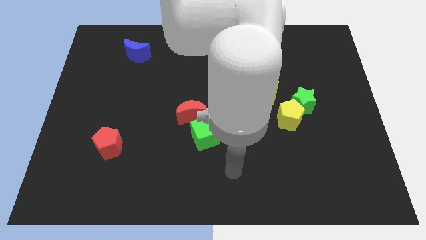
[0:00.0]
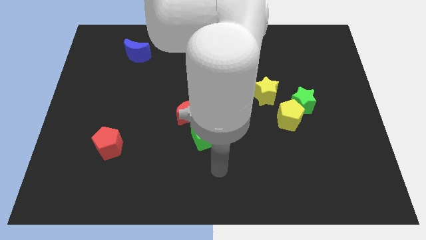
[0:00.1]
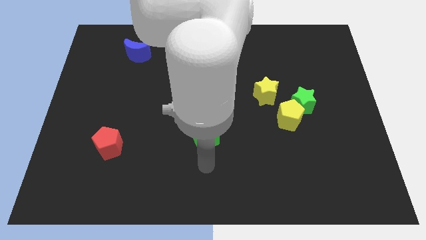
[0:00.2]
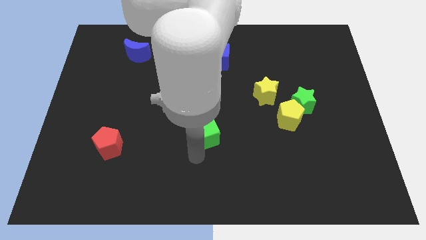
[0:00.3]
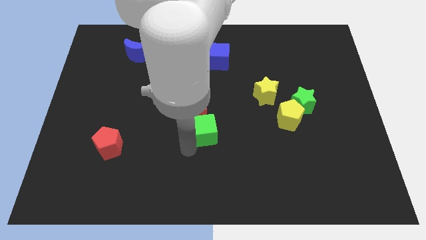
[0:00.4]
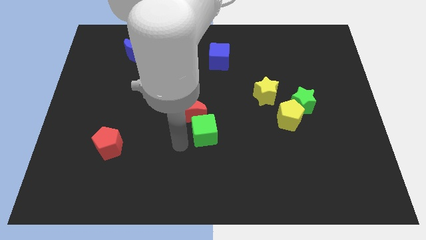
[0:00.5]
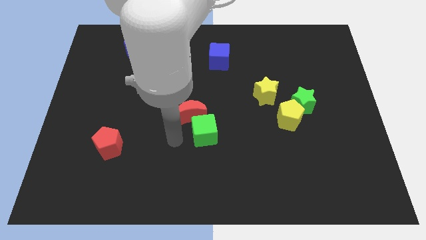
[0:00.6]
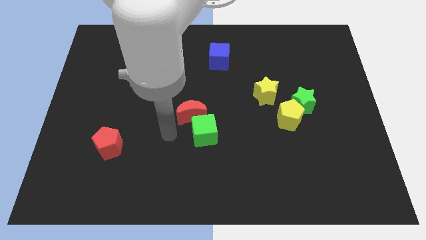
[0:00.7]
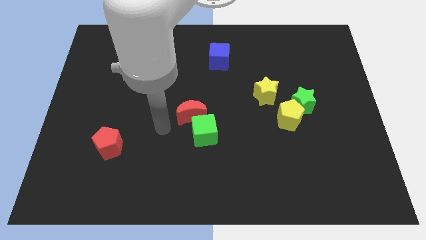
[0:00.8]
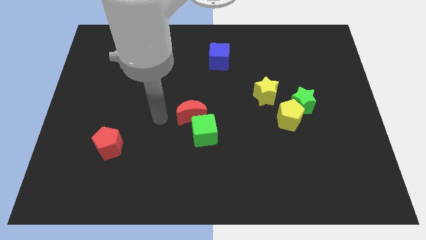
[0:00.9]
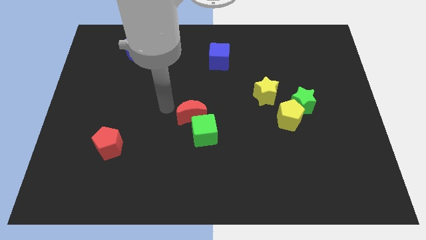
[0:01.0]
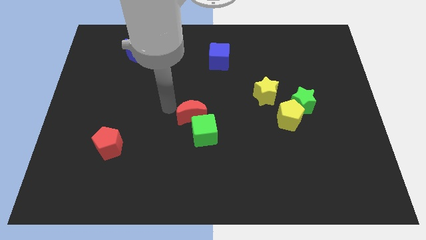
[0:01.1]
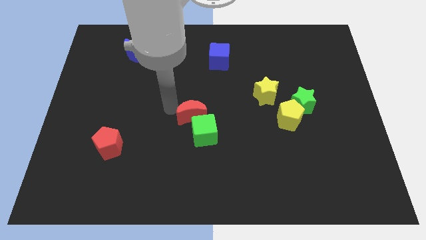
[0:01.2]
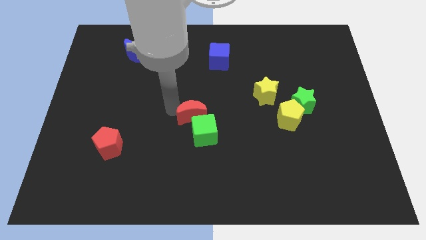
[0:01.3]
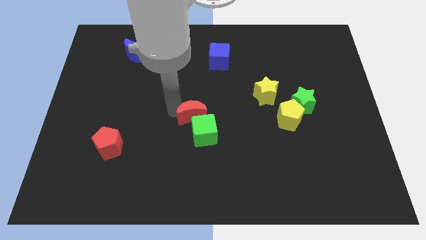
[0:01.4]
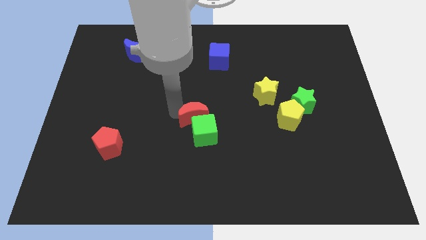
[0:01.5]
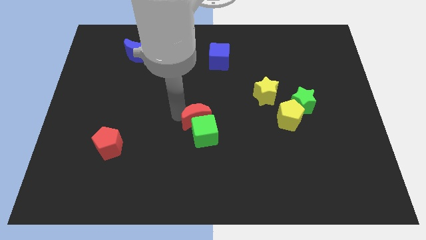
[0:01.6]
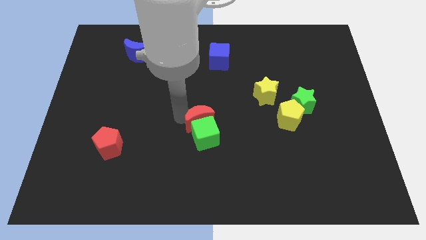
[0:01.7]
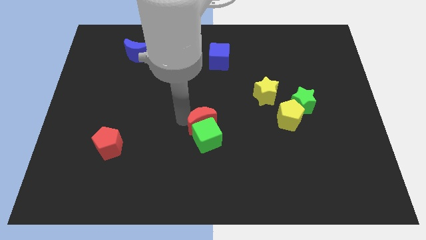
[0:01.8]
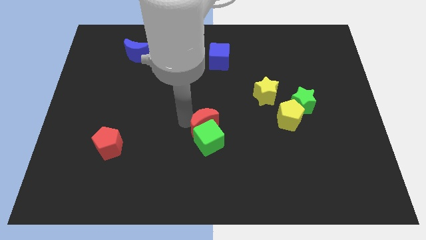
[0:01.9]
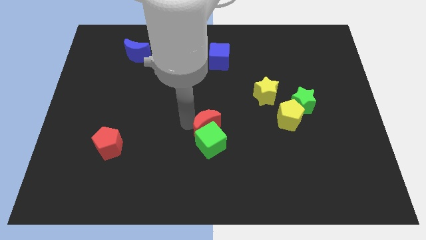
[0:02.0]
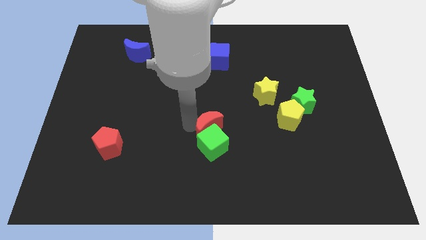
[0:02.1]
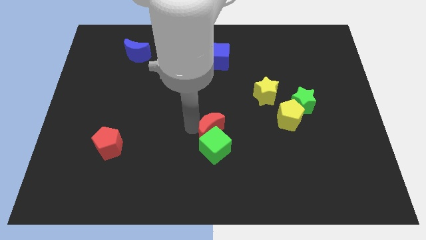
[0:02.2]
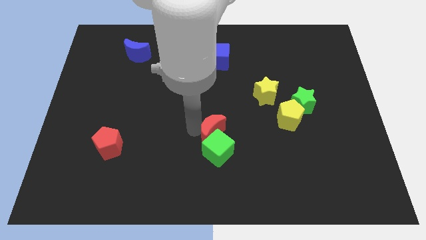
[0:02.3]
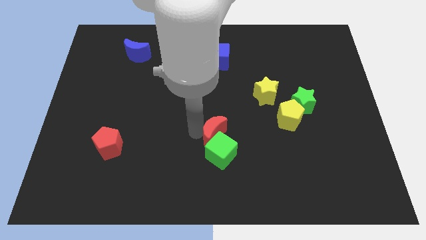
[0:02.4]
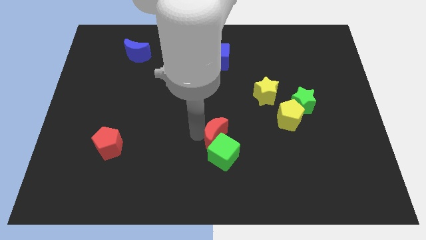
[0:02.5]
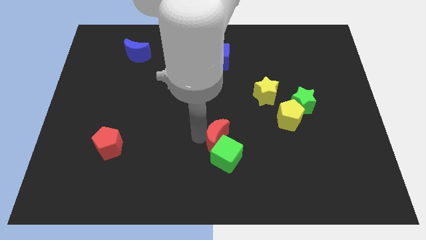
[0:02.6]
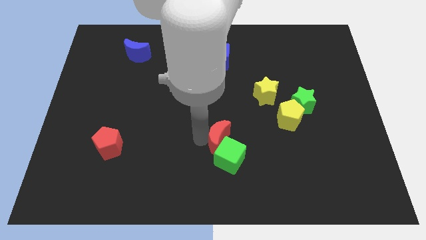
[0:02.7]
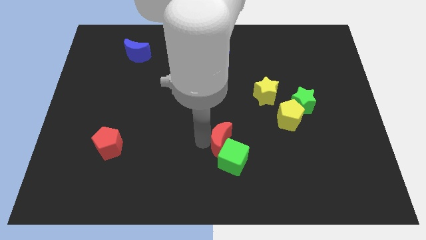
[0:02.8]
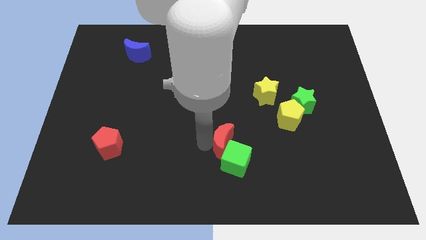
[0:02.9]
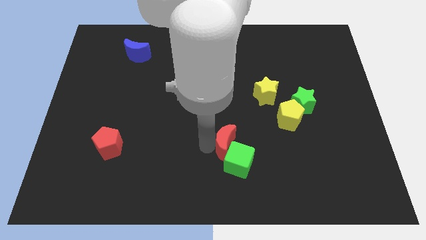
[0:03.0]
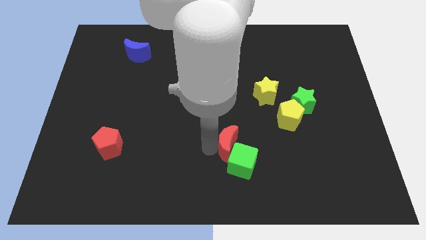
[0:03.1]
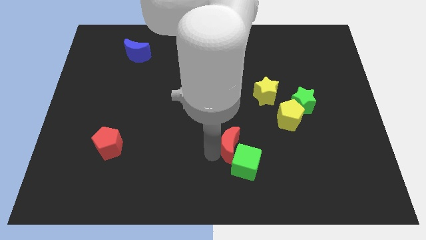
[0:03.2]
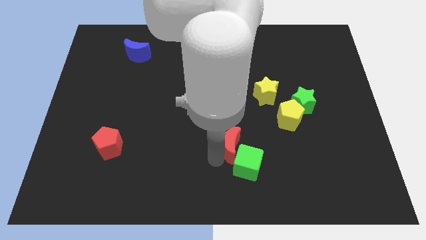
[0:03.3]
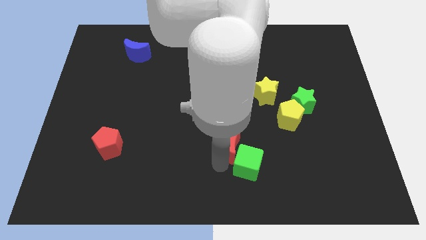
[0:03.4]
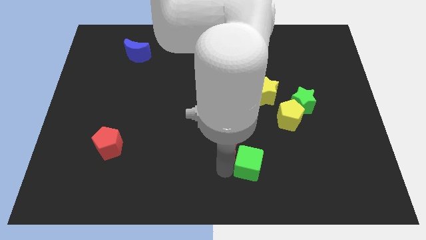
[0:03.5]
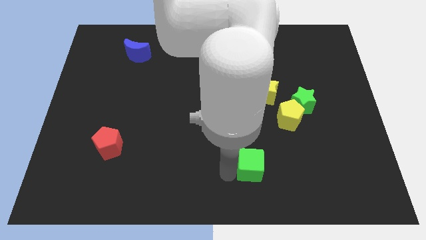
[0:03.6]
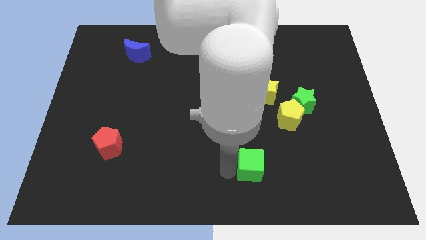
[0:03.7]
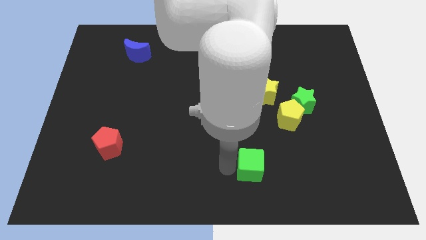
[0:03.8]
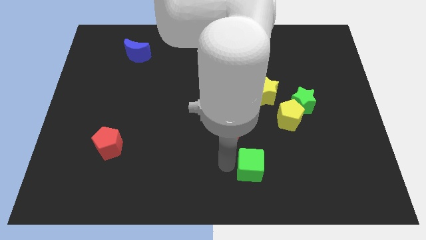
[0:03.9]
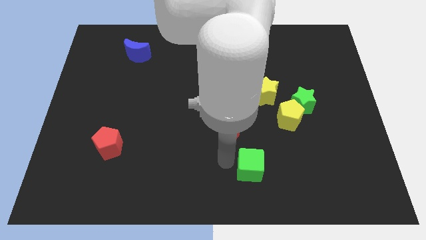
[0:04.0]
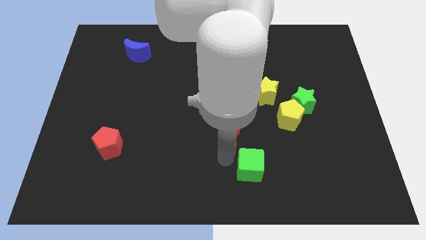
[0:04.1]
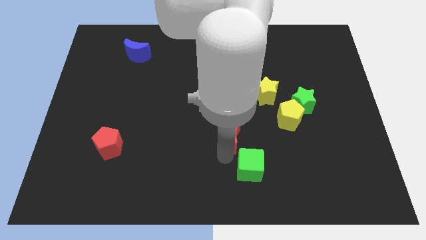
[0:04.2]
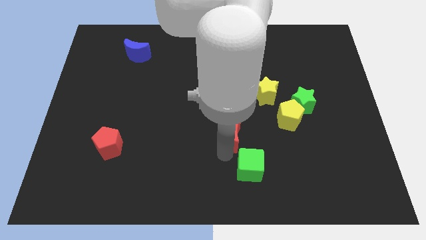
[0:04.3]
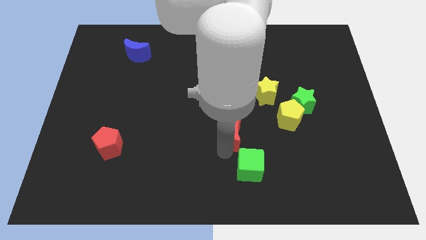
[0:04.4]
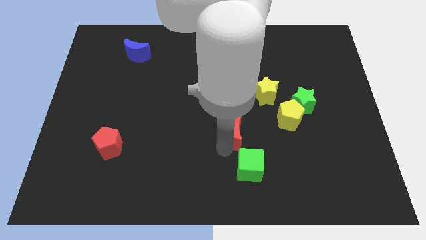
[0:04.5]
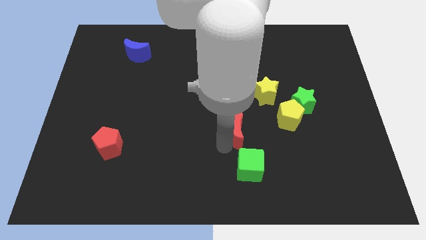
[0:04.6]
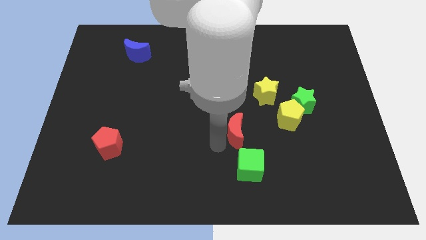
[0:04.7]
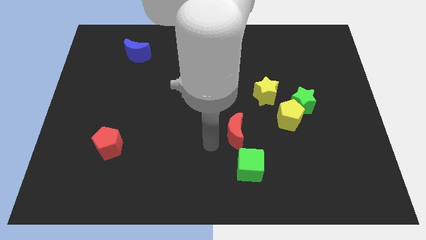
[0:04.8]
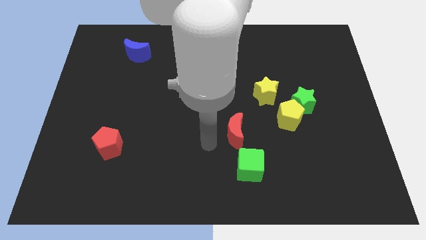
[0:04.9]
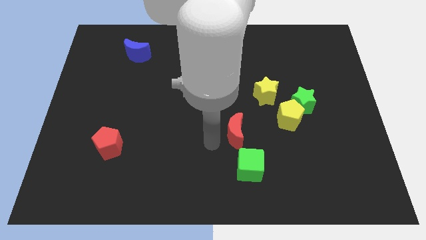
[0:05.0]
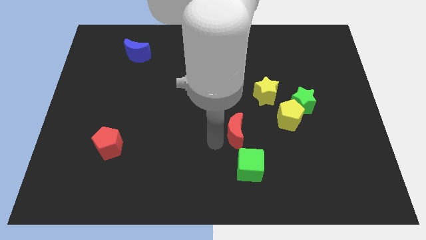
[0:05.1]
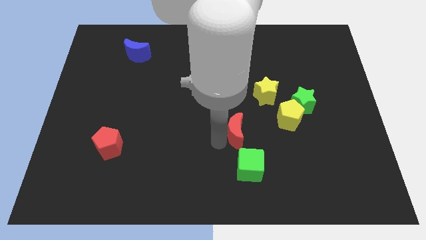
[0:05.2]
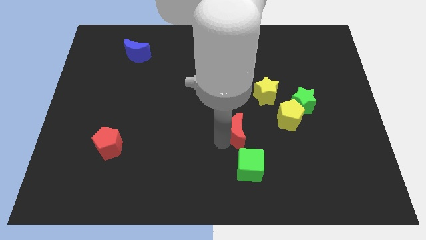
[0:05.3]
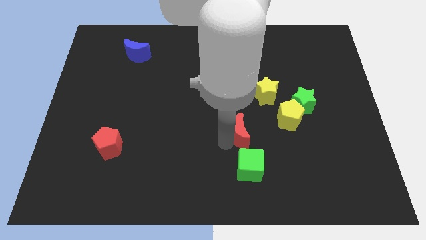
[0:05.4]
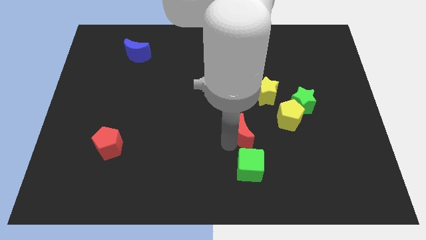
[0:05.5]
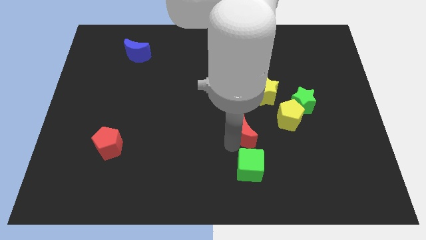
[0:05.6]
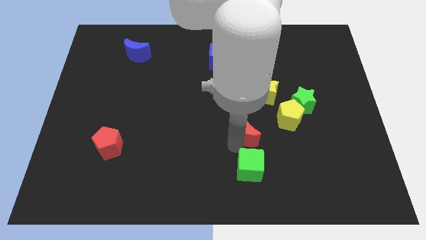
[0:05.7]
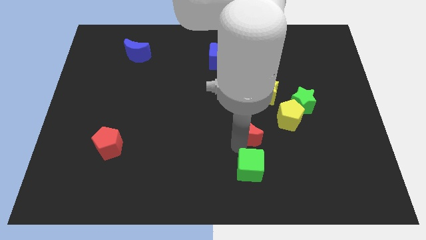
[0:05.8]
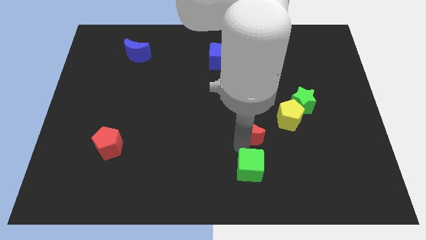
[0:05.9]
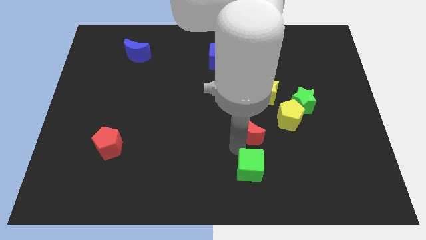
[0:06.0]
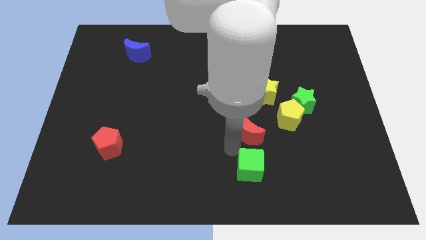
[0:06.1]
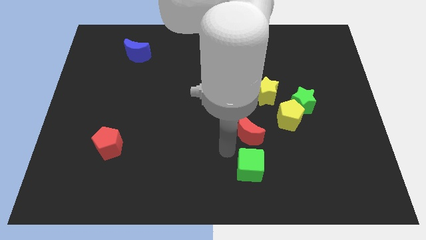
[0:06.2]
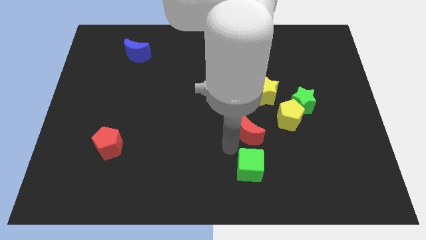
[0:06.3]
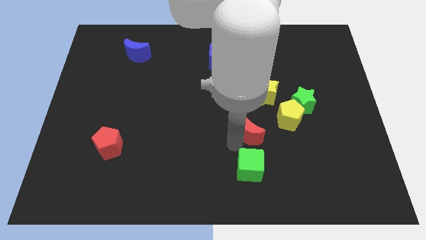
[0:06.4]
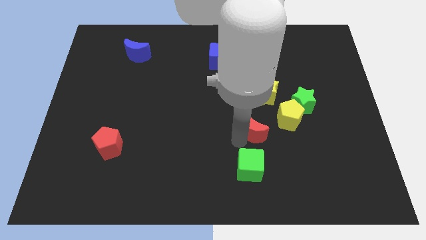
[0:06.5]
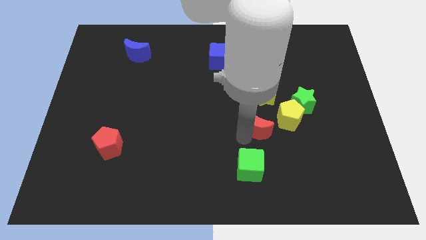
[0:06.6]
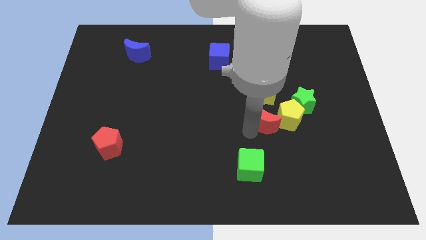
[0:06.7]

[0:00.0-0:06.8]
move the red moon close to the yellow pentagon
